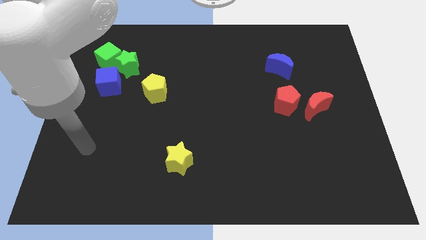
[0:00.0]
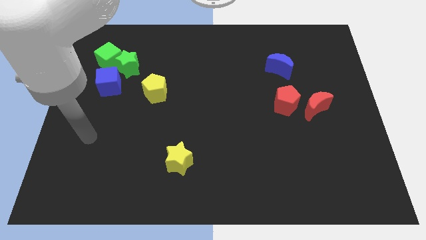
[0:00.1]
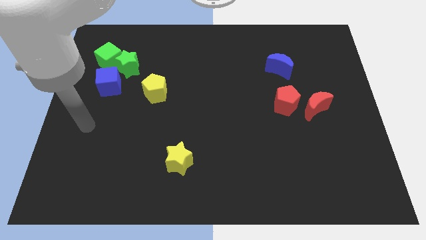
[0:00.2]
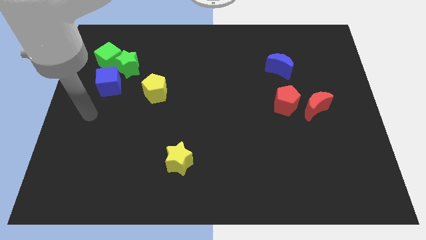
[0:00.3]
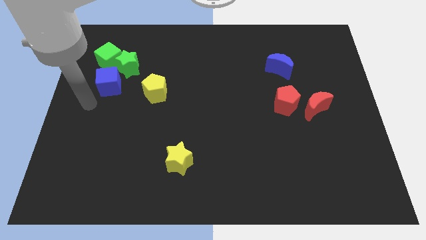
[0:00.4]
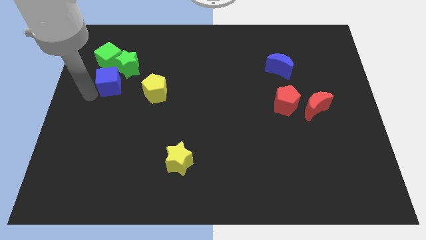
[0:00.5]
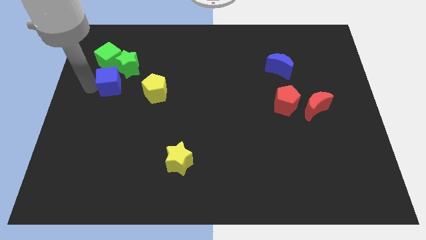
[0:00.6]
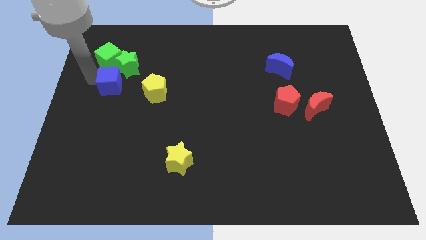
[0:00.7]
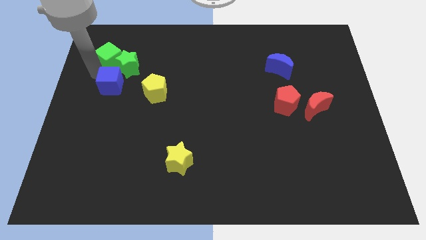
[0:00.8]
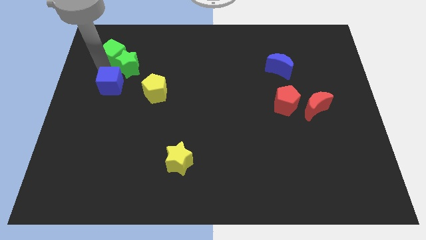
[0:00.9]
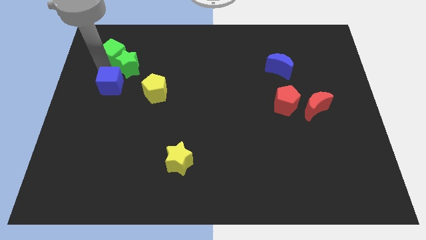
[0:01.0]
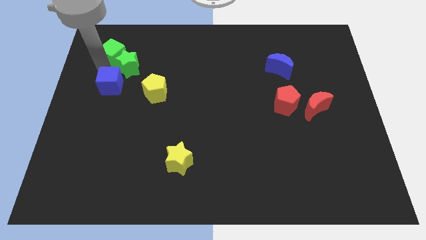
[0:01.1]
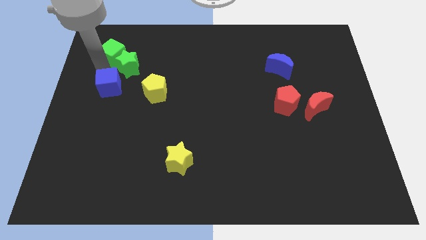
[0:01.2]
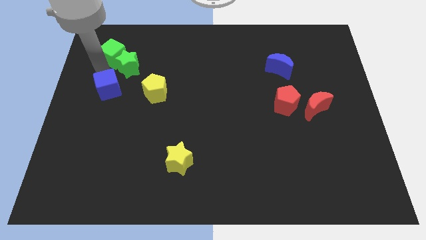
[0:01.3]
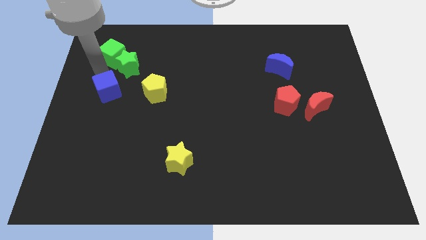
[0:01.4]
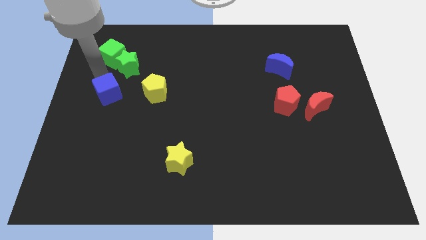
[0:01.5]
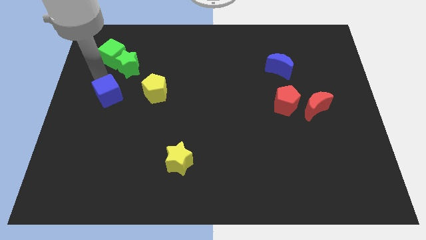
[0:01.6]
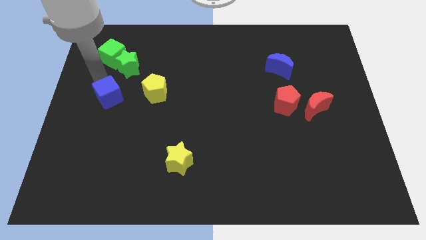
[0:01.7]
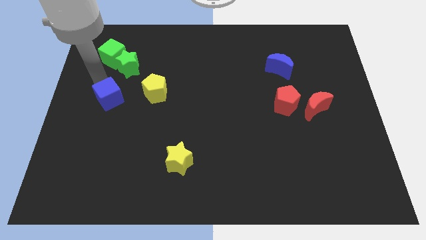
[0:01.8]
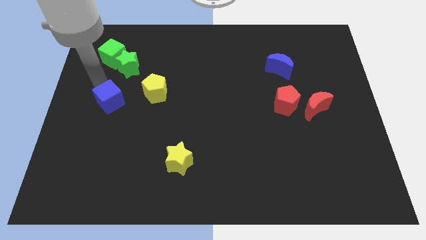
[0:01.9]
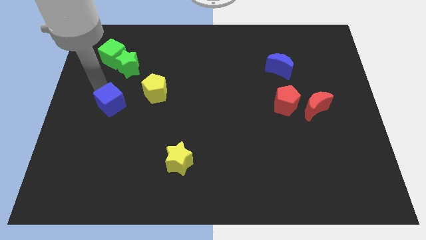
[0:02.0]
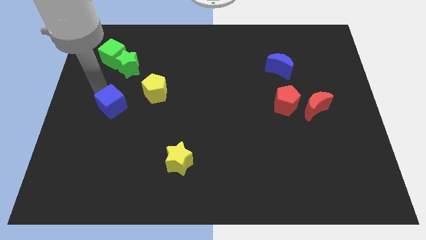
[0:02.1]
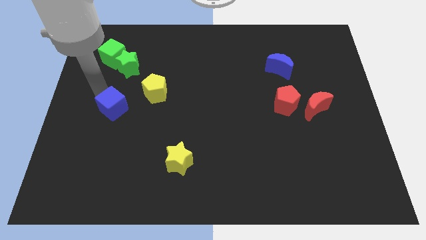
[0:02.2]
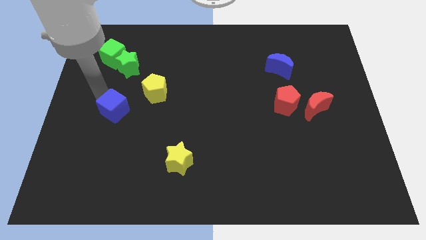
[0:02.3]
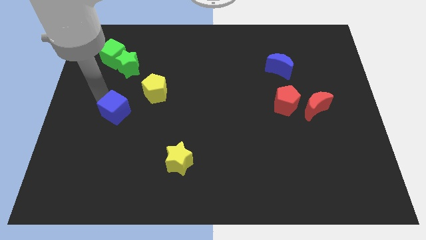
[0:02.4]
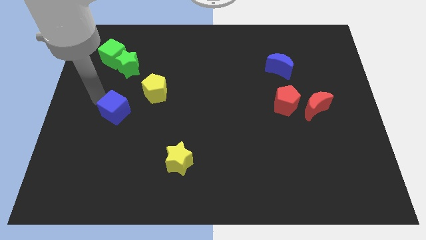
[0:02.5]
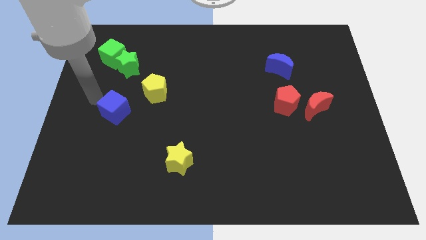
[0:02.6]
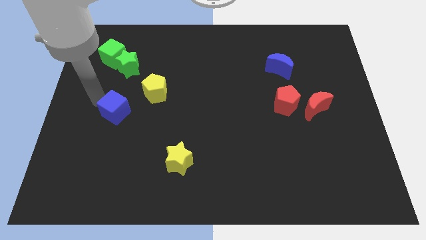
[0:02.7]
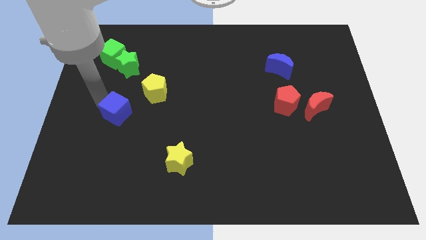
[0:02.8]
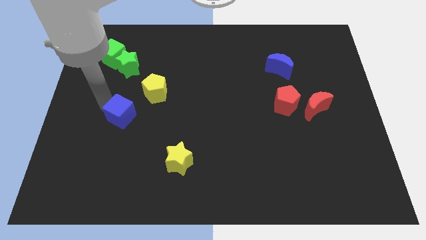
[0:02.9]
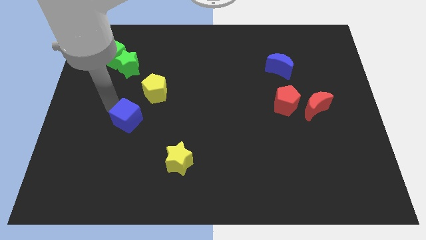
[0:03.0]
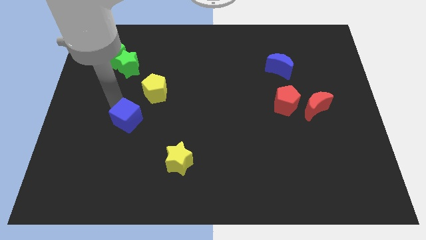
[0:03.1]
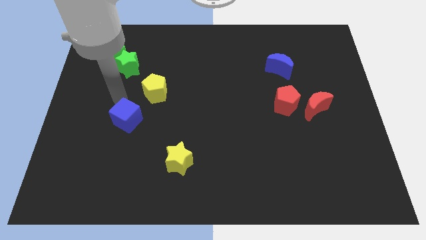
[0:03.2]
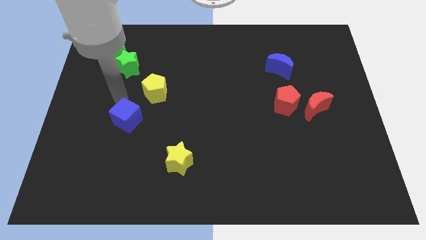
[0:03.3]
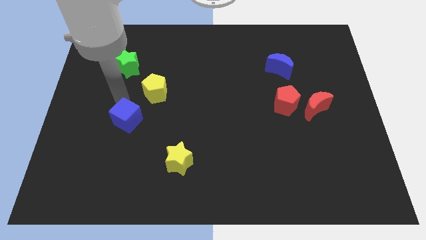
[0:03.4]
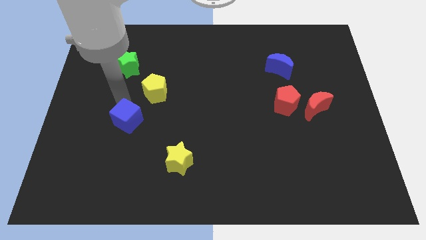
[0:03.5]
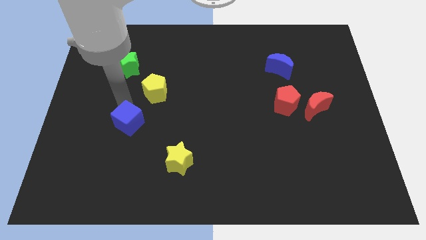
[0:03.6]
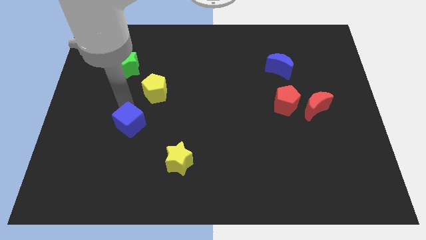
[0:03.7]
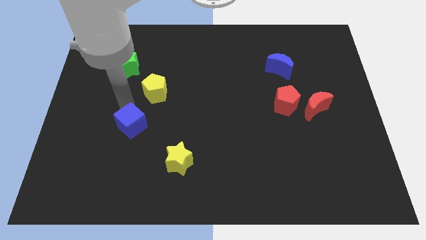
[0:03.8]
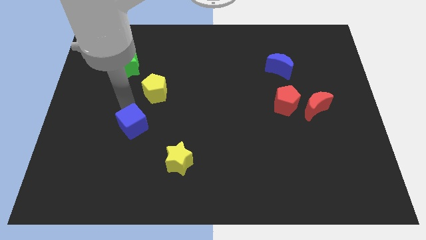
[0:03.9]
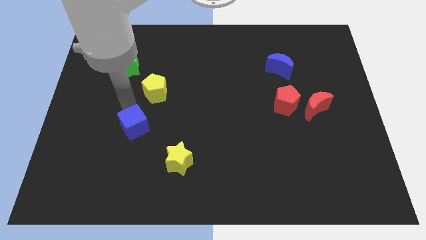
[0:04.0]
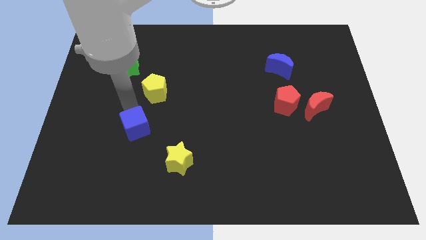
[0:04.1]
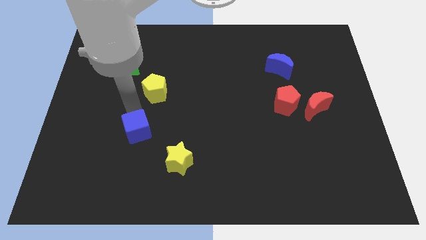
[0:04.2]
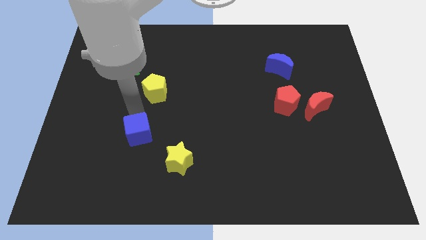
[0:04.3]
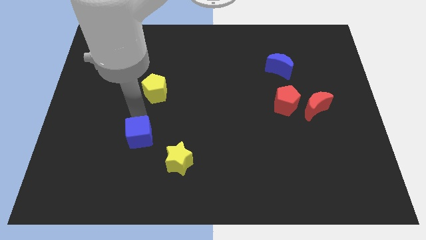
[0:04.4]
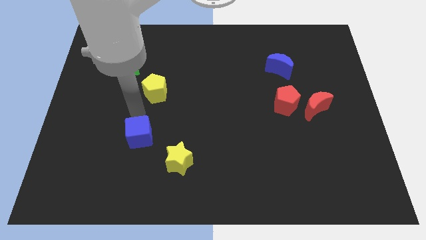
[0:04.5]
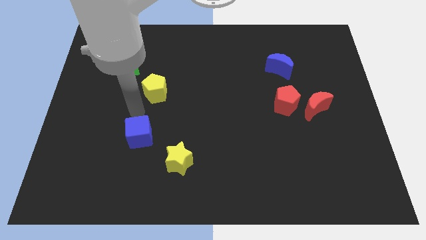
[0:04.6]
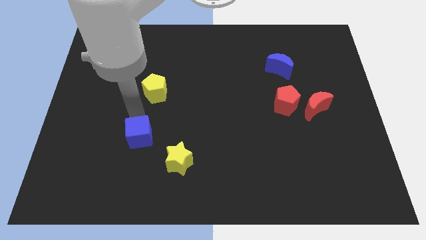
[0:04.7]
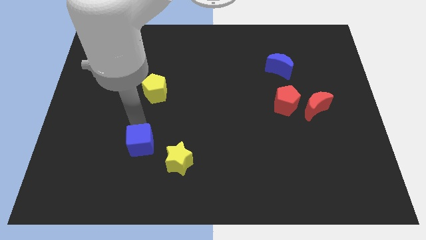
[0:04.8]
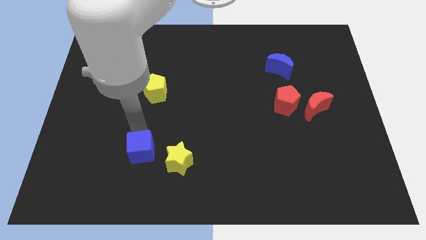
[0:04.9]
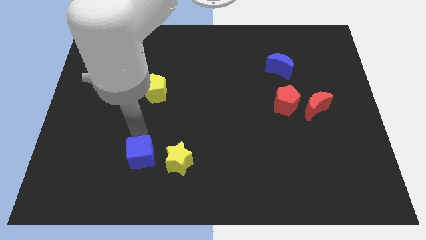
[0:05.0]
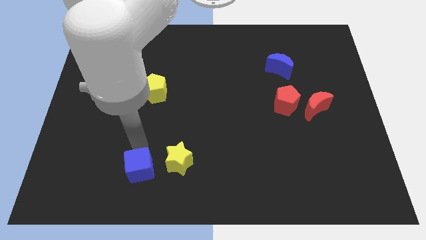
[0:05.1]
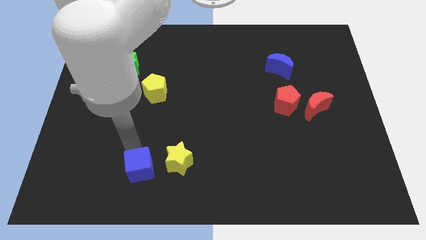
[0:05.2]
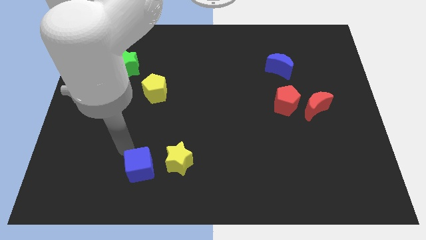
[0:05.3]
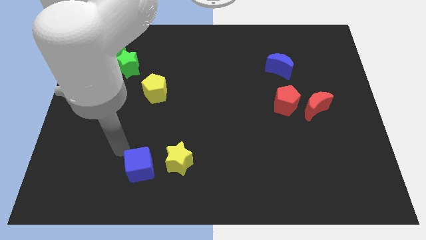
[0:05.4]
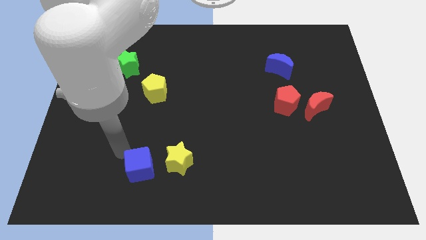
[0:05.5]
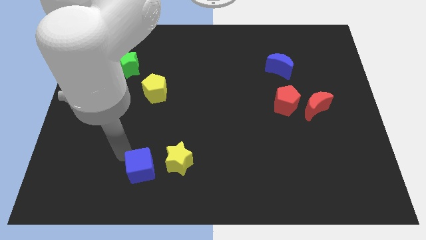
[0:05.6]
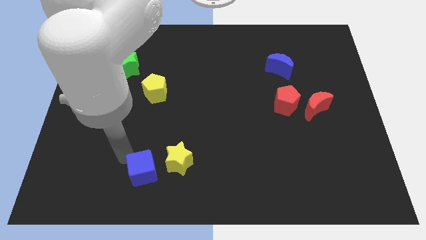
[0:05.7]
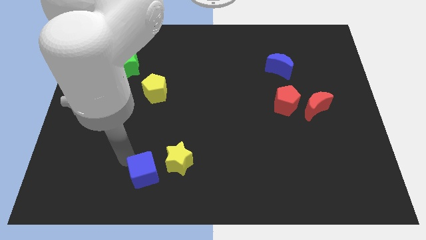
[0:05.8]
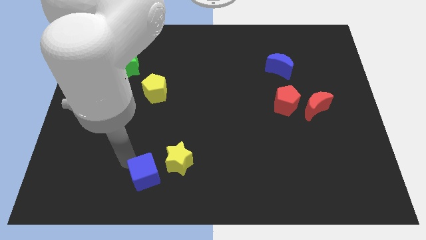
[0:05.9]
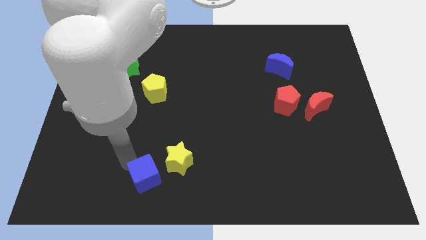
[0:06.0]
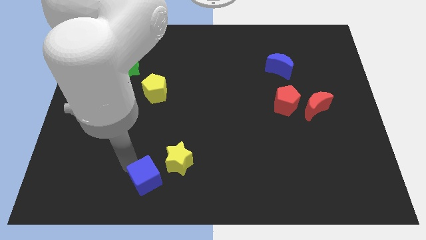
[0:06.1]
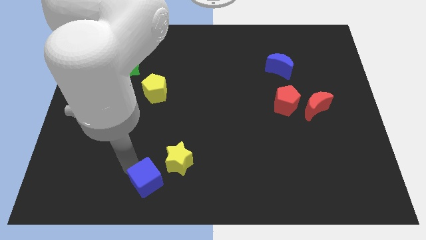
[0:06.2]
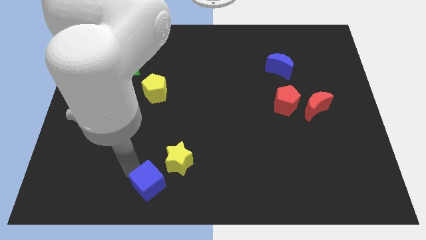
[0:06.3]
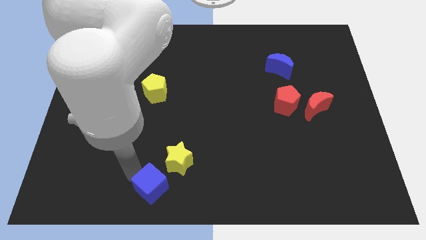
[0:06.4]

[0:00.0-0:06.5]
push the blue cube to the bottom

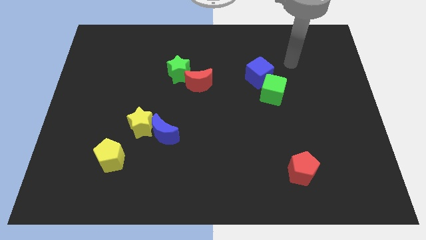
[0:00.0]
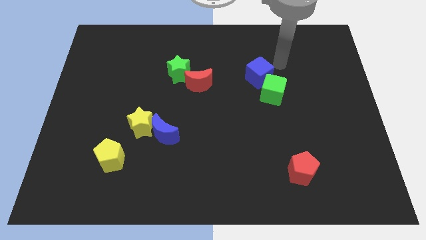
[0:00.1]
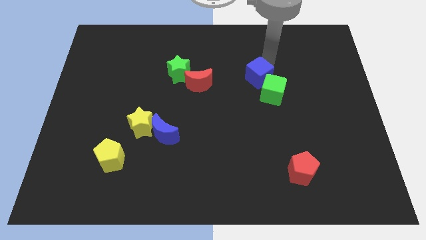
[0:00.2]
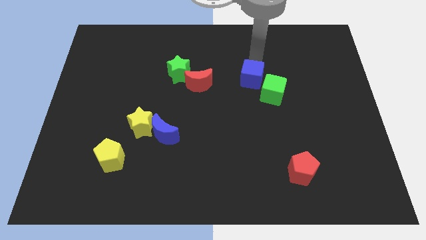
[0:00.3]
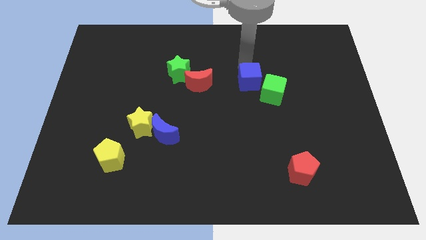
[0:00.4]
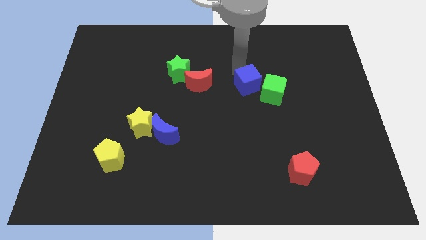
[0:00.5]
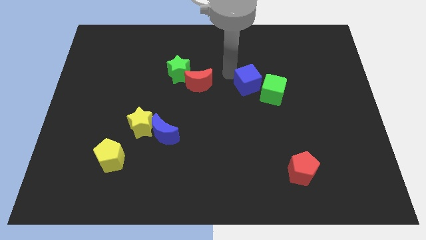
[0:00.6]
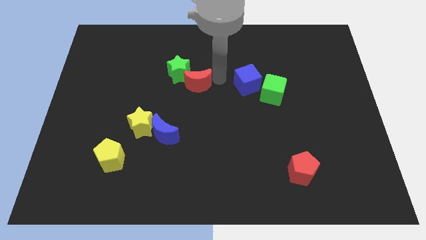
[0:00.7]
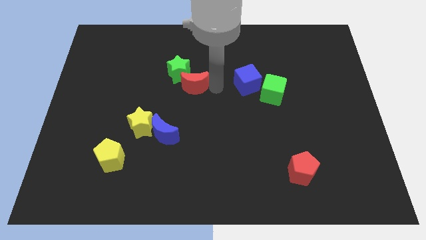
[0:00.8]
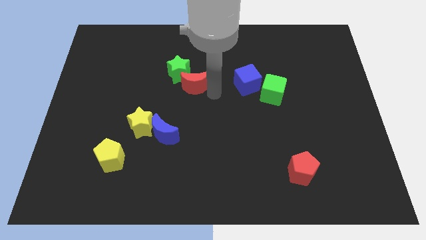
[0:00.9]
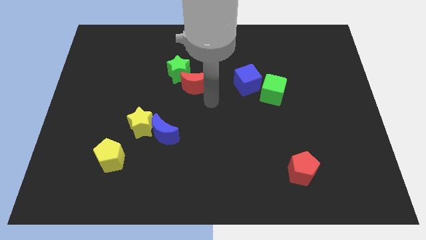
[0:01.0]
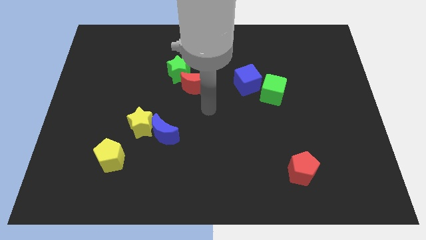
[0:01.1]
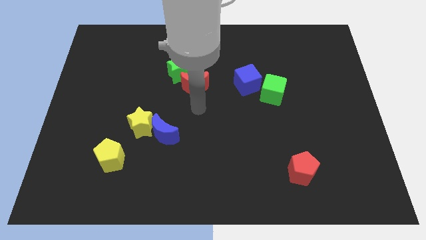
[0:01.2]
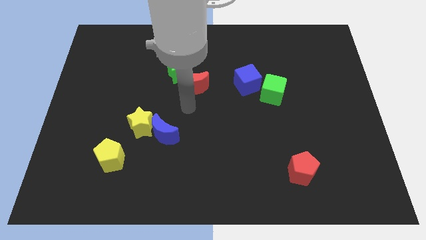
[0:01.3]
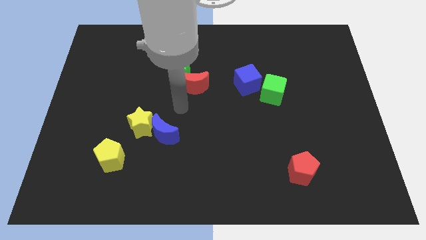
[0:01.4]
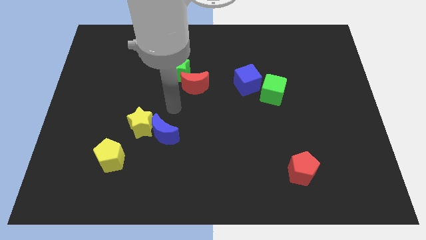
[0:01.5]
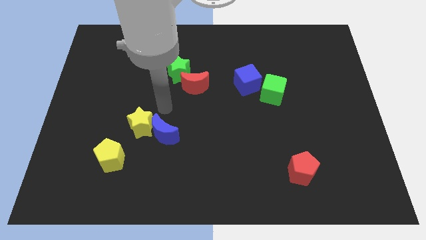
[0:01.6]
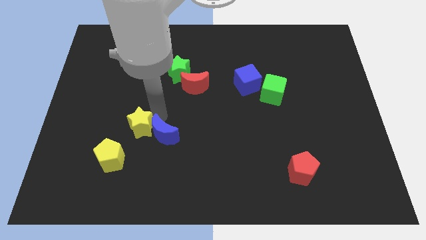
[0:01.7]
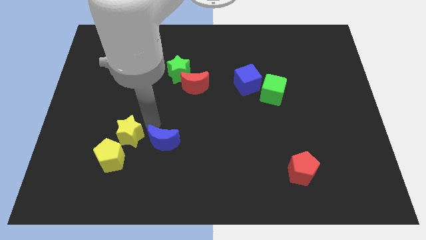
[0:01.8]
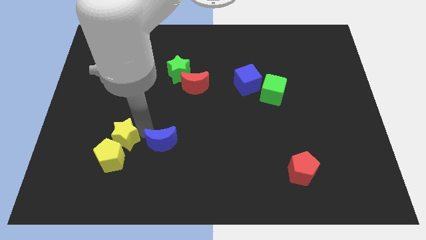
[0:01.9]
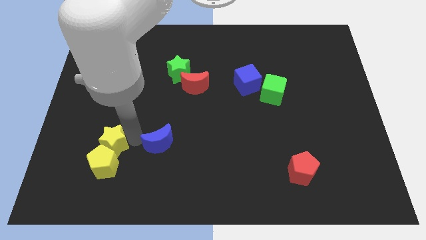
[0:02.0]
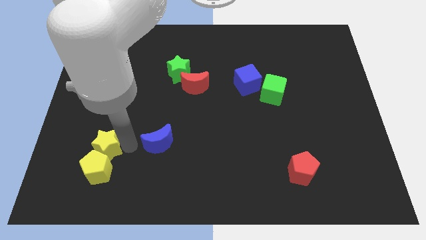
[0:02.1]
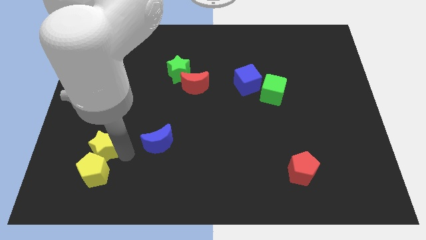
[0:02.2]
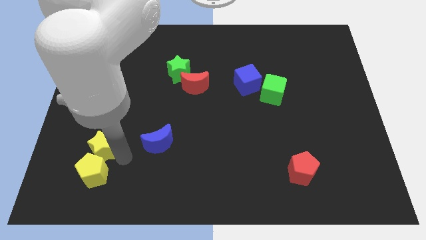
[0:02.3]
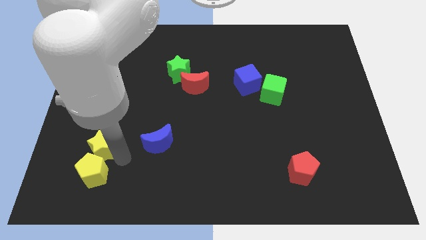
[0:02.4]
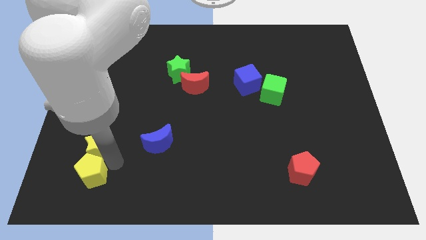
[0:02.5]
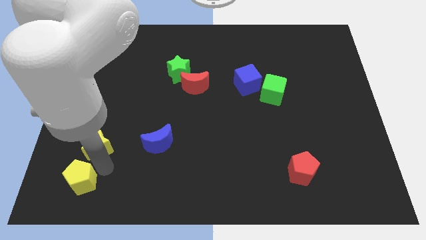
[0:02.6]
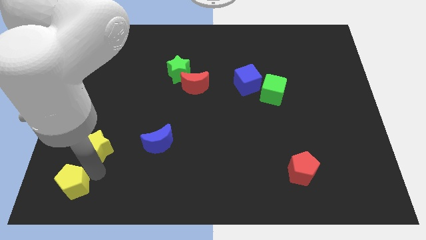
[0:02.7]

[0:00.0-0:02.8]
slide the yellow pentagon to the bottom left
